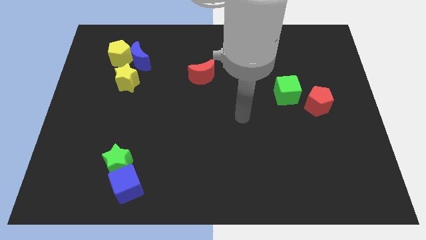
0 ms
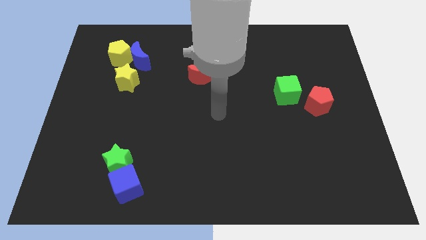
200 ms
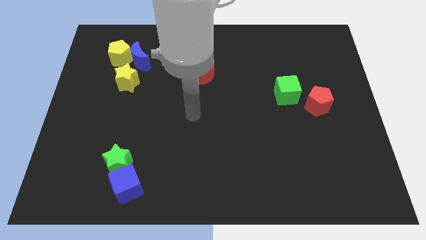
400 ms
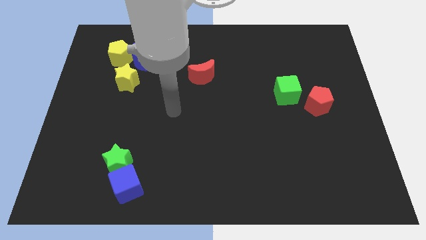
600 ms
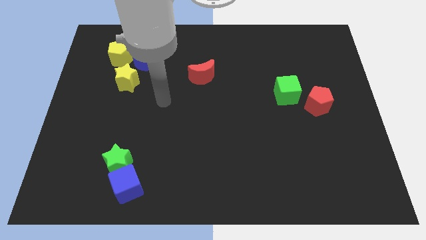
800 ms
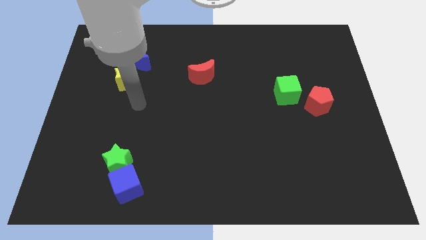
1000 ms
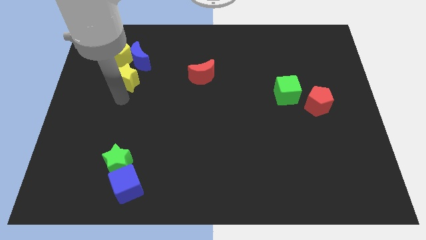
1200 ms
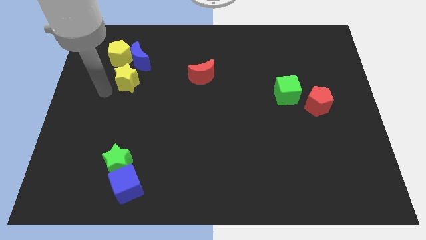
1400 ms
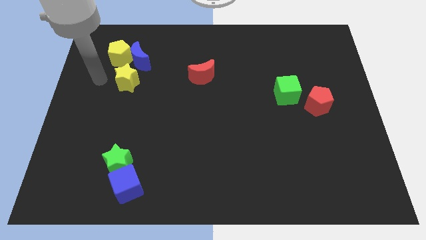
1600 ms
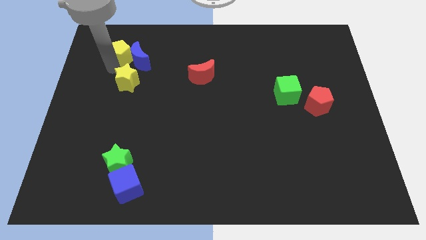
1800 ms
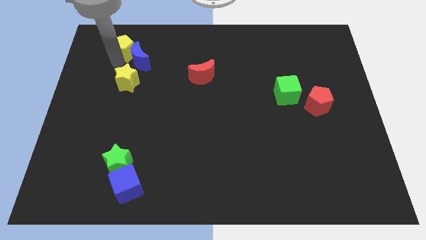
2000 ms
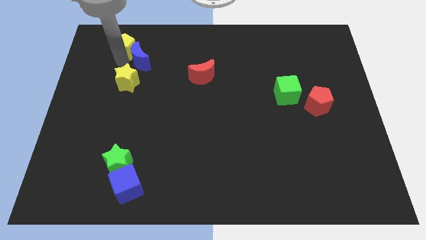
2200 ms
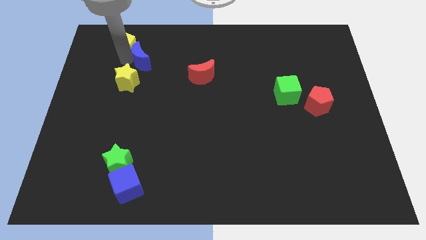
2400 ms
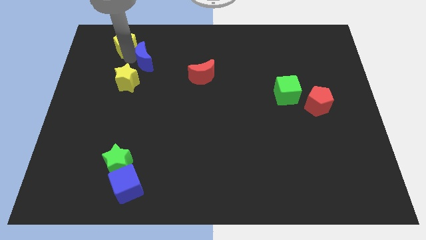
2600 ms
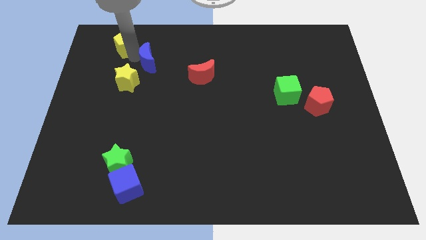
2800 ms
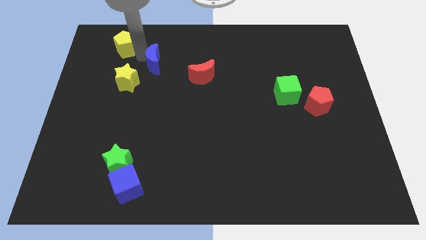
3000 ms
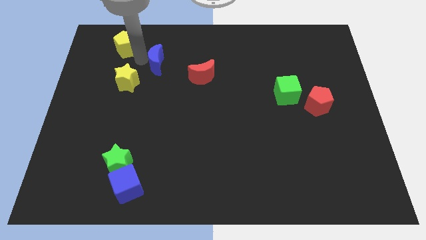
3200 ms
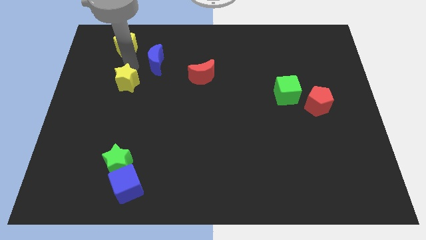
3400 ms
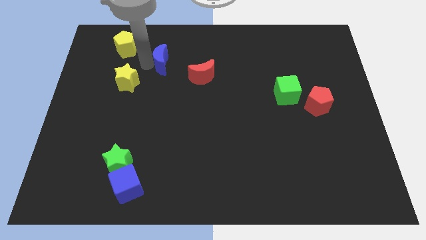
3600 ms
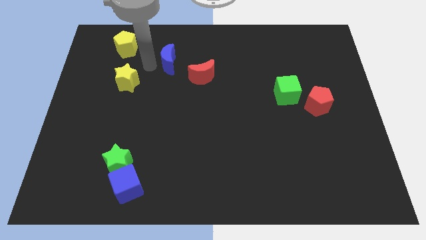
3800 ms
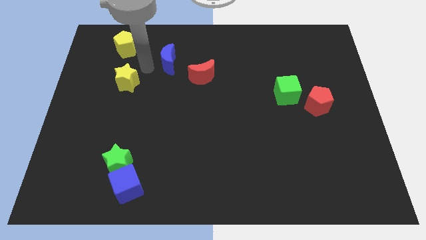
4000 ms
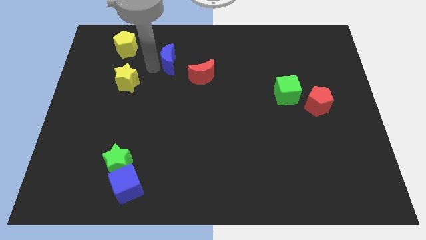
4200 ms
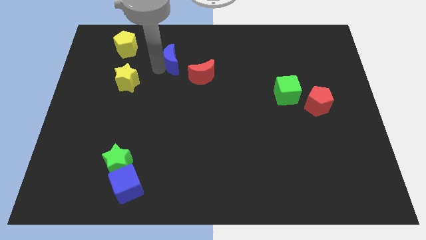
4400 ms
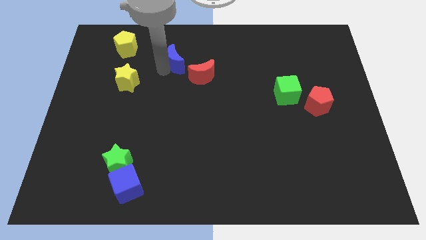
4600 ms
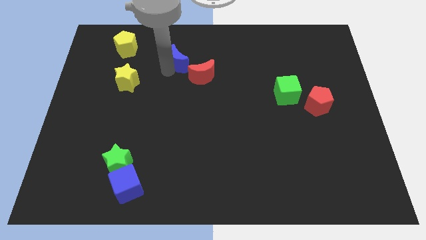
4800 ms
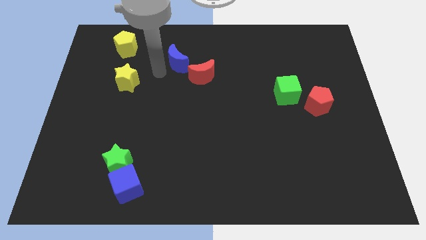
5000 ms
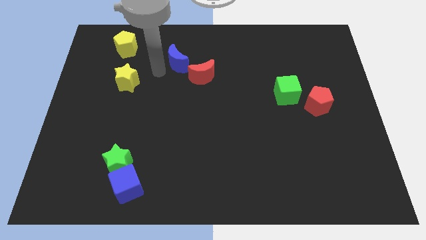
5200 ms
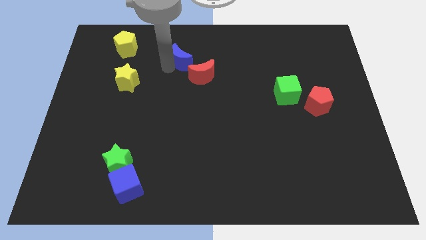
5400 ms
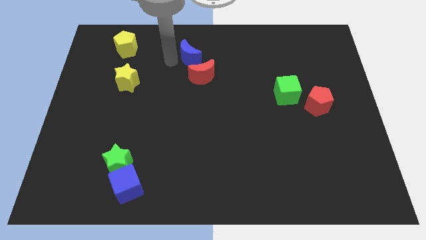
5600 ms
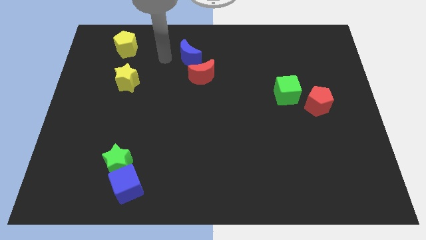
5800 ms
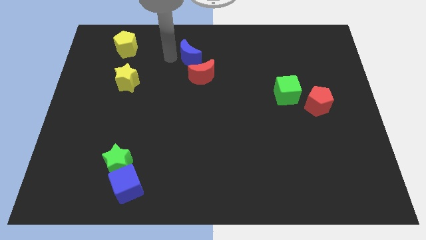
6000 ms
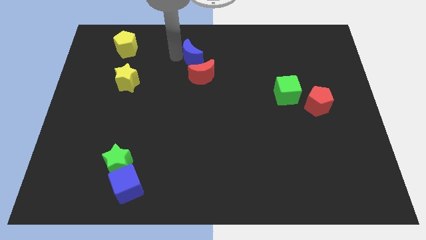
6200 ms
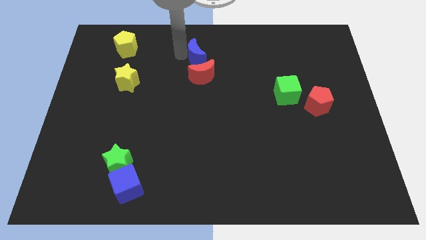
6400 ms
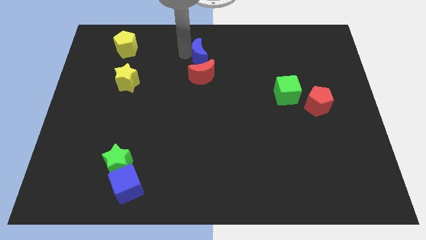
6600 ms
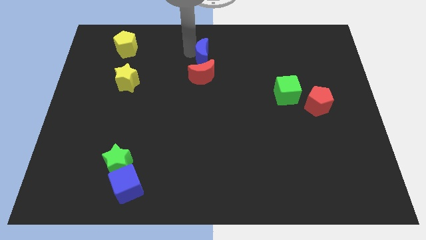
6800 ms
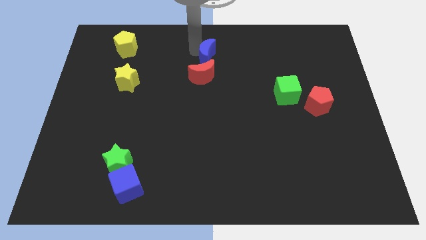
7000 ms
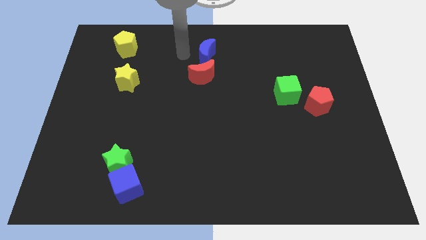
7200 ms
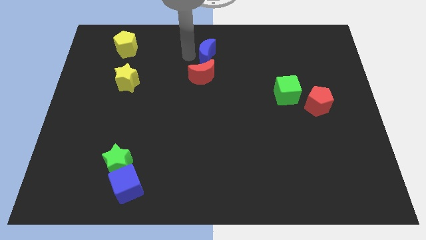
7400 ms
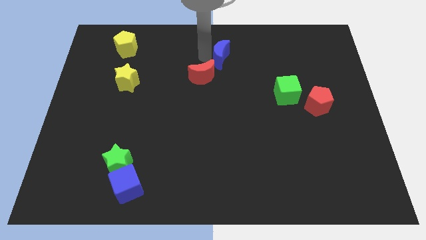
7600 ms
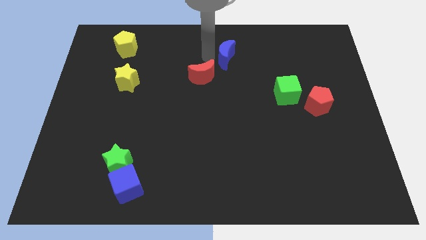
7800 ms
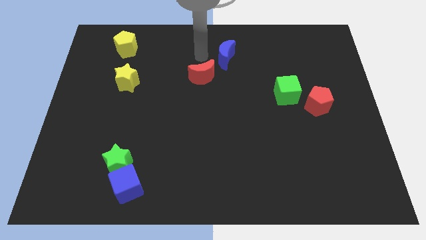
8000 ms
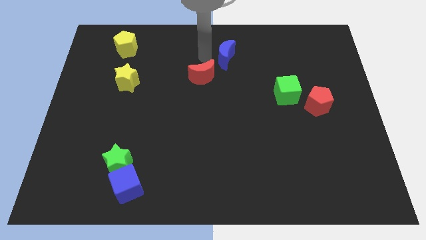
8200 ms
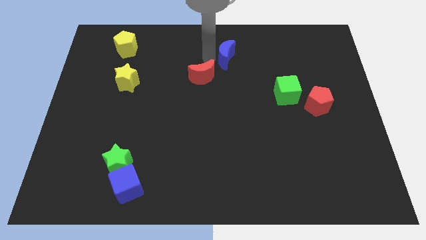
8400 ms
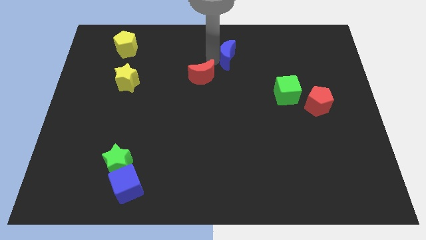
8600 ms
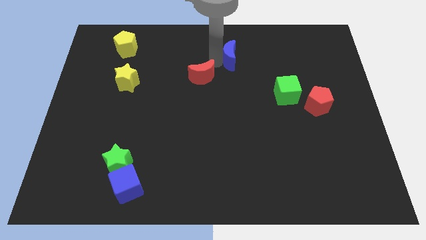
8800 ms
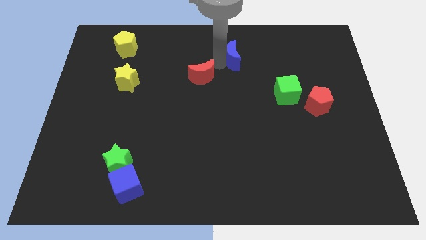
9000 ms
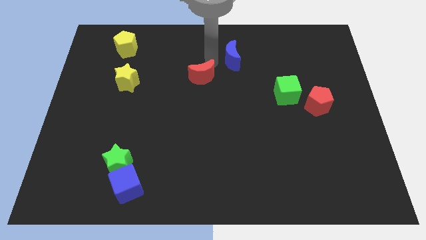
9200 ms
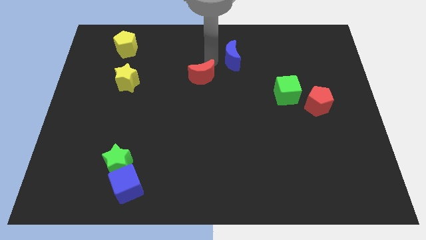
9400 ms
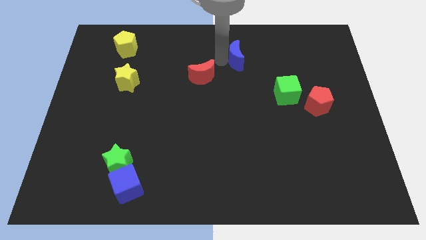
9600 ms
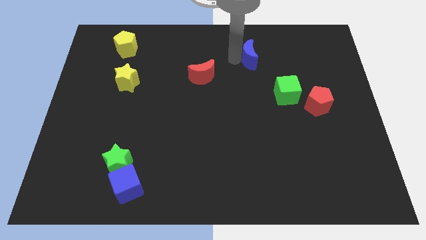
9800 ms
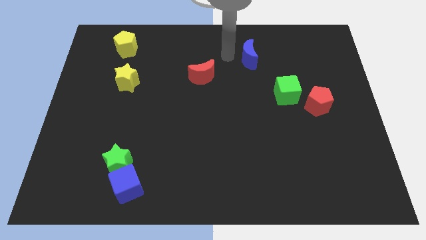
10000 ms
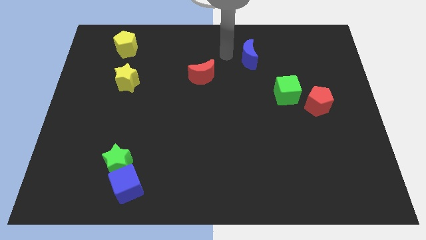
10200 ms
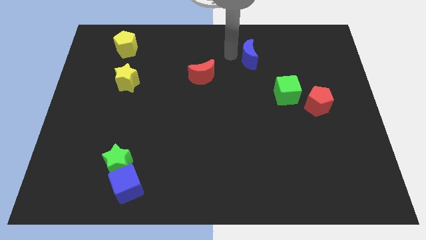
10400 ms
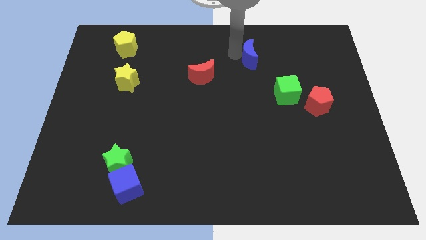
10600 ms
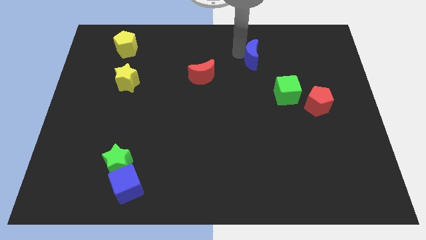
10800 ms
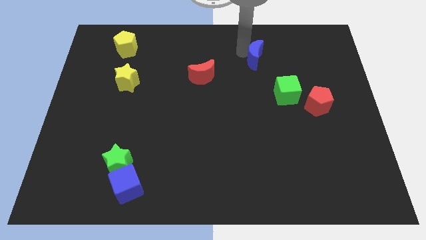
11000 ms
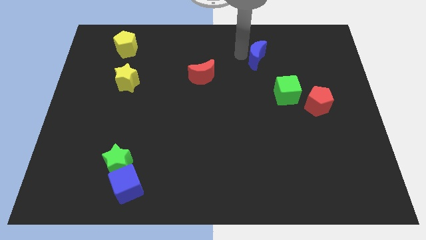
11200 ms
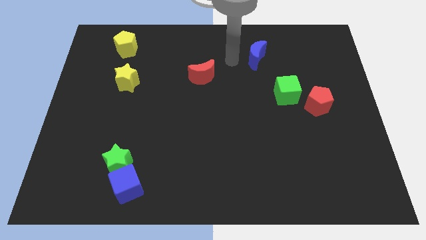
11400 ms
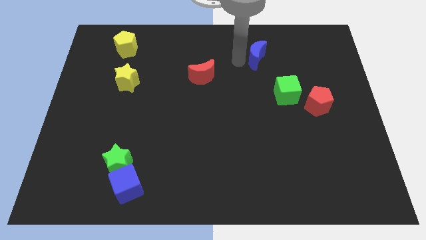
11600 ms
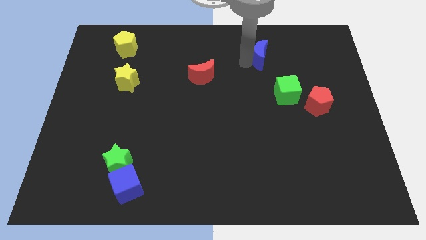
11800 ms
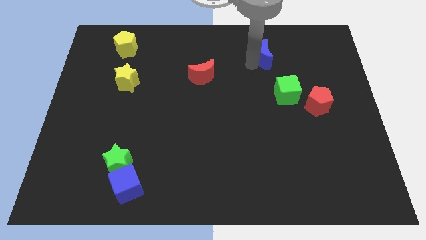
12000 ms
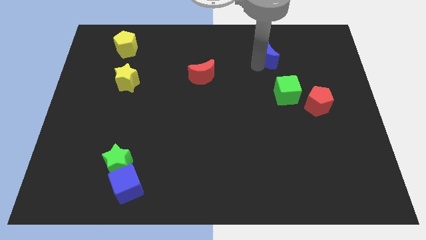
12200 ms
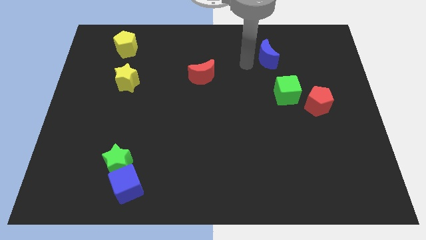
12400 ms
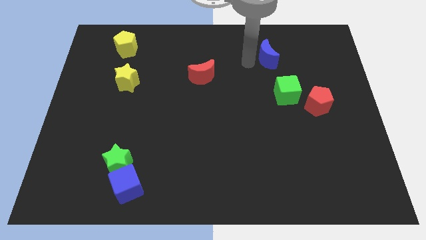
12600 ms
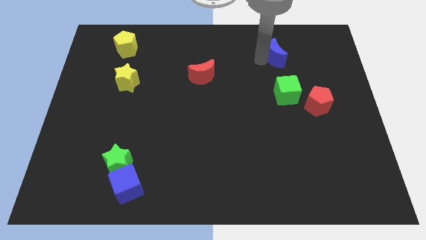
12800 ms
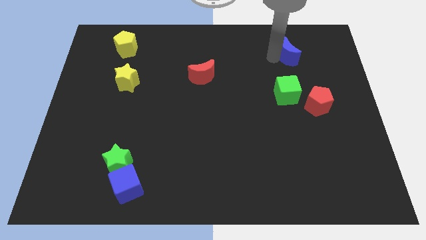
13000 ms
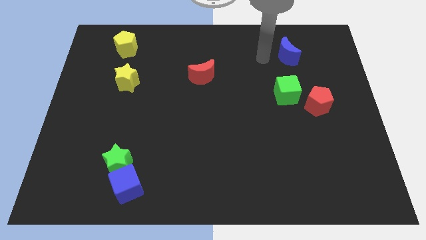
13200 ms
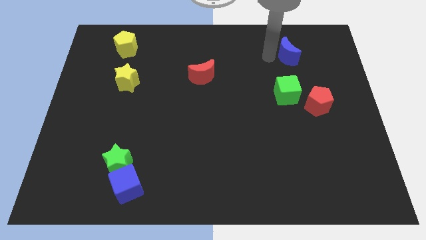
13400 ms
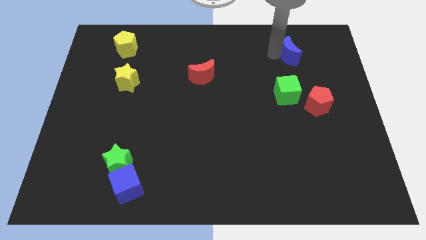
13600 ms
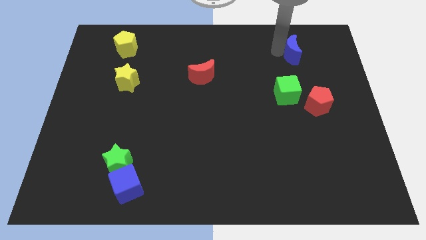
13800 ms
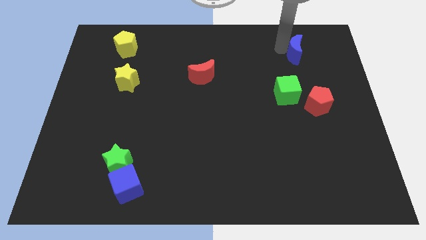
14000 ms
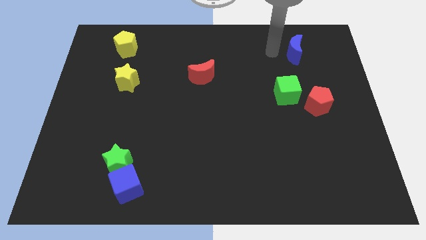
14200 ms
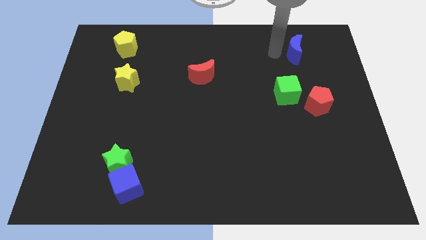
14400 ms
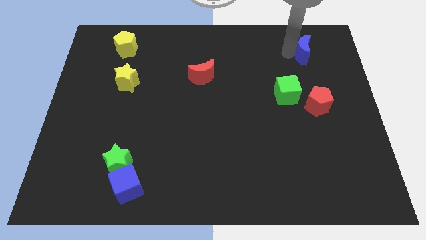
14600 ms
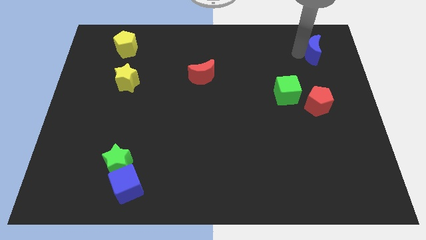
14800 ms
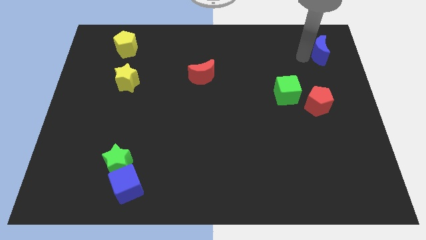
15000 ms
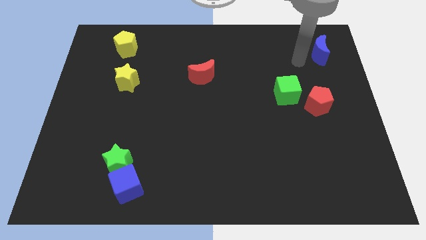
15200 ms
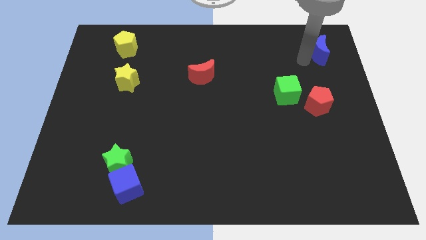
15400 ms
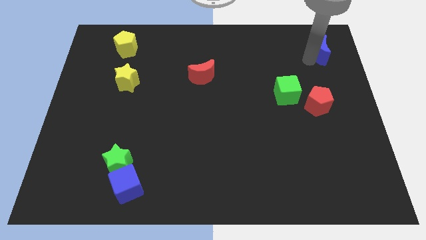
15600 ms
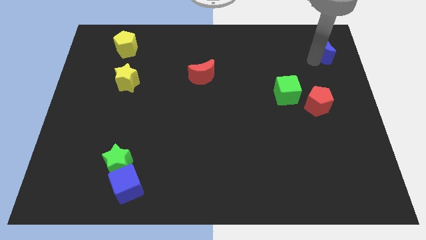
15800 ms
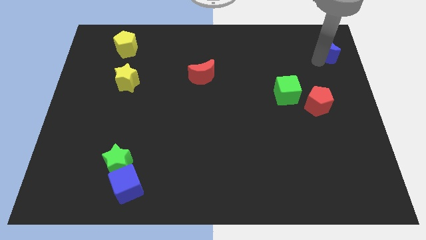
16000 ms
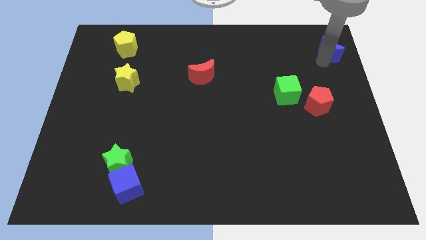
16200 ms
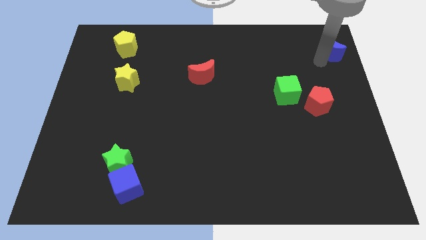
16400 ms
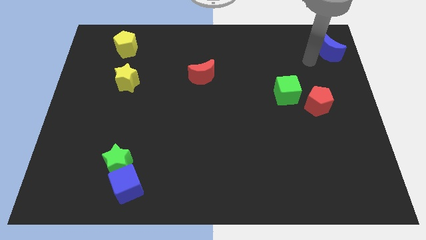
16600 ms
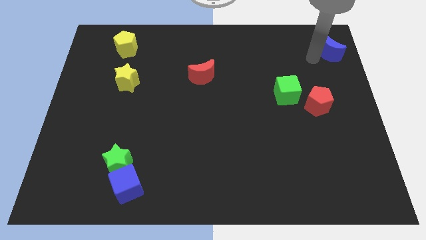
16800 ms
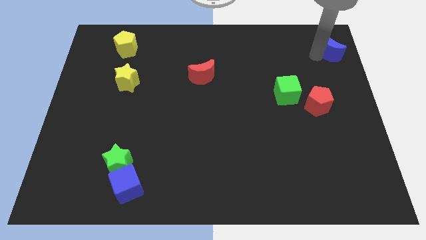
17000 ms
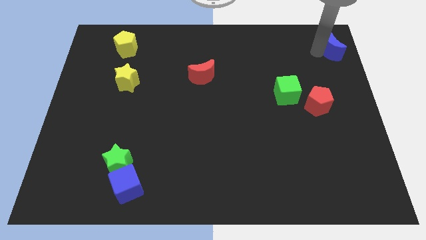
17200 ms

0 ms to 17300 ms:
slide the blue moon to the top right corner
